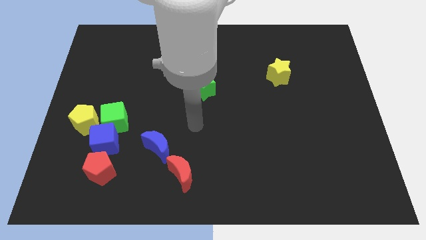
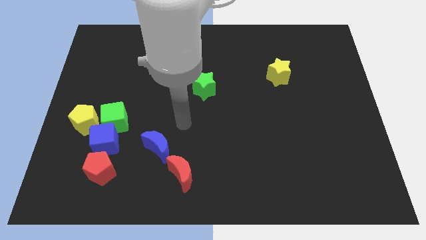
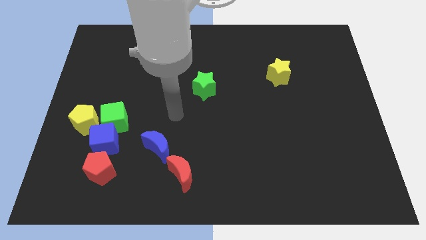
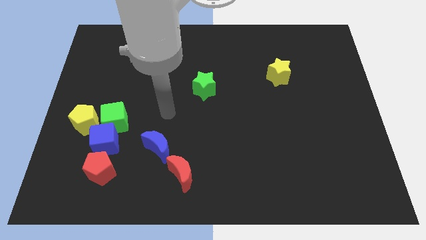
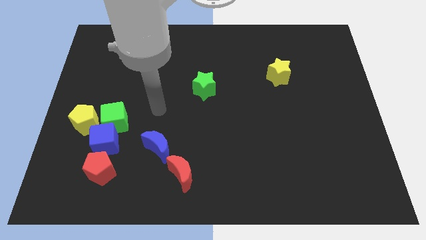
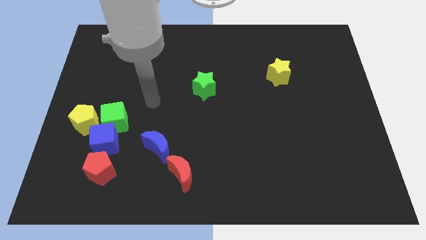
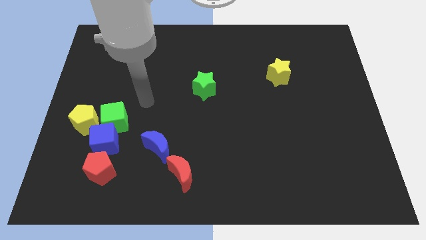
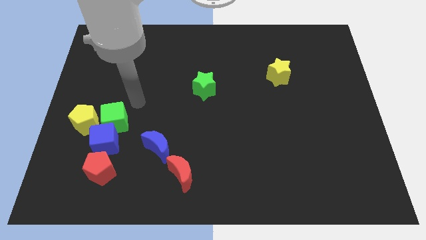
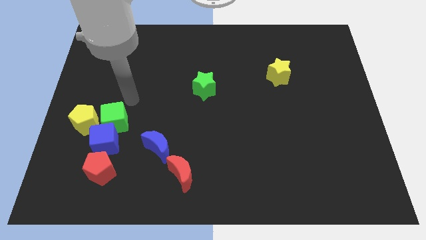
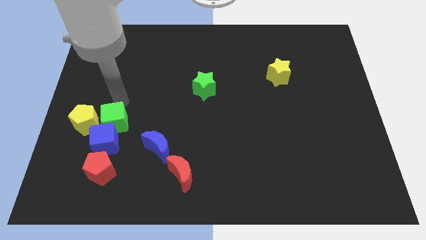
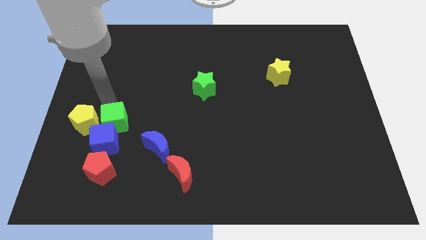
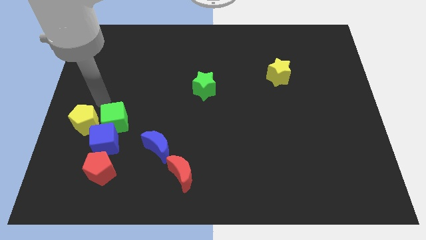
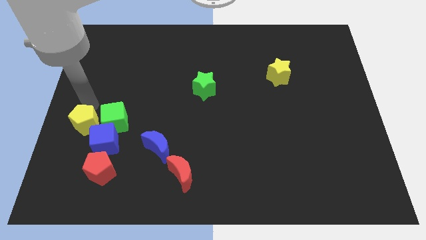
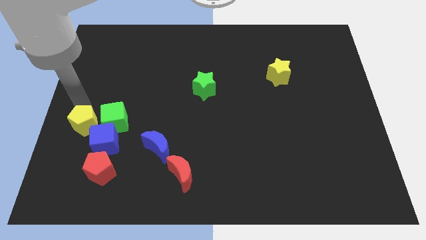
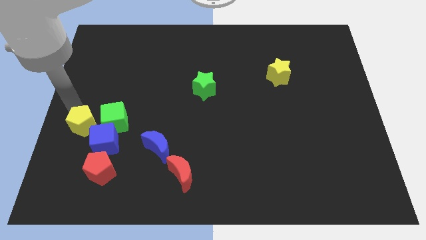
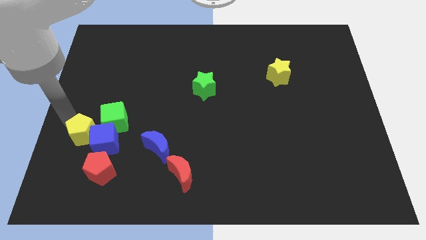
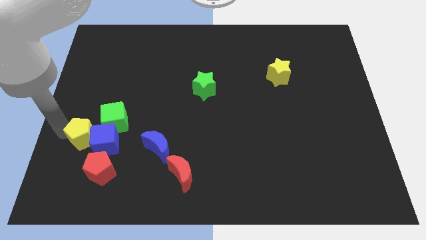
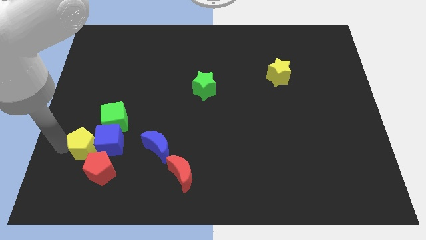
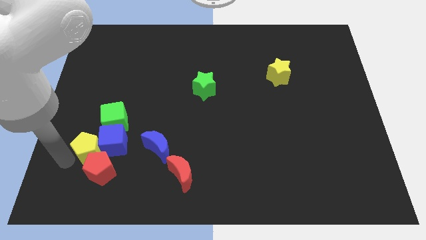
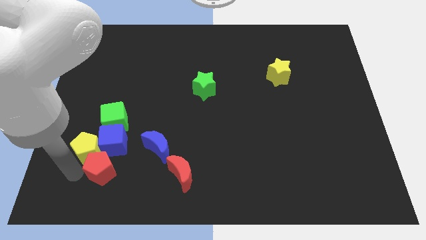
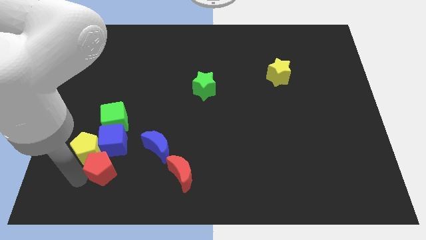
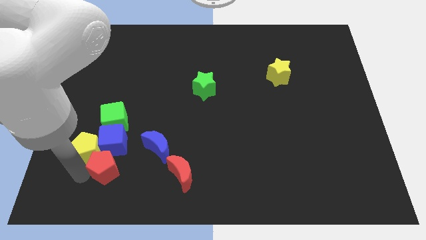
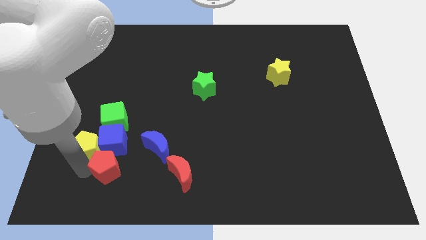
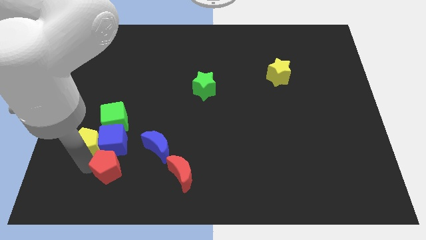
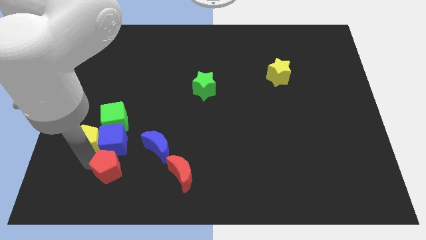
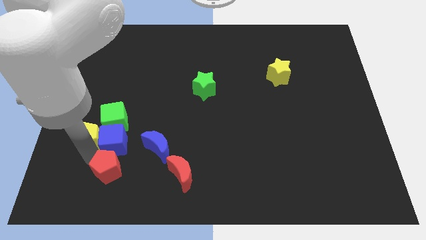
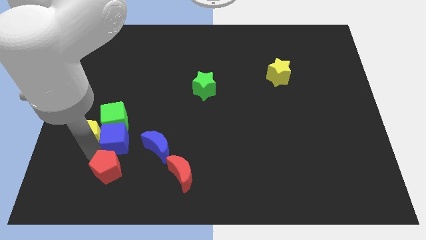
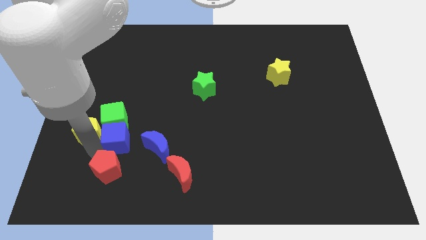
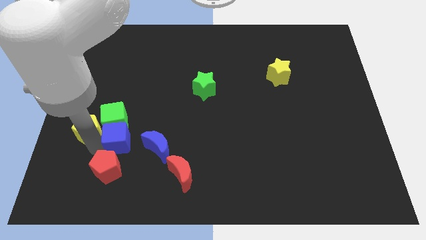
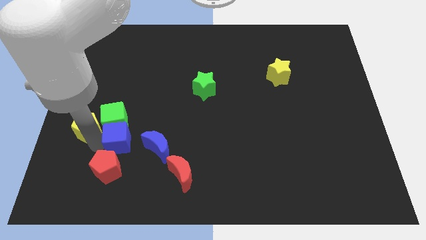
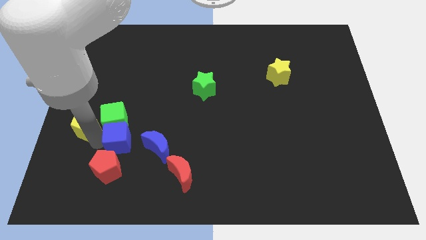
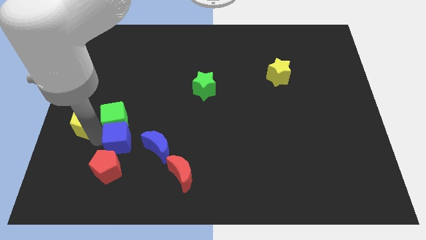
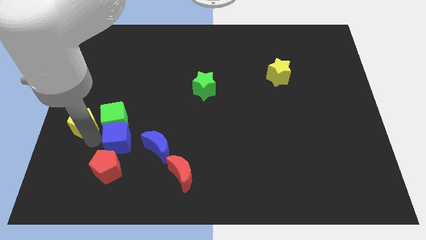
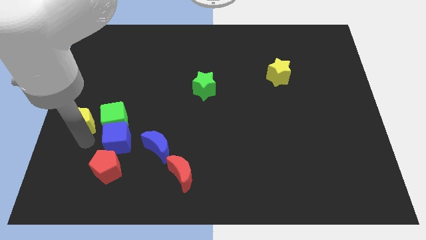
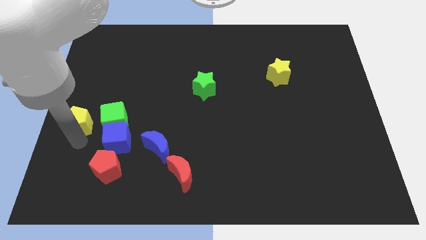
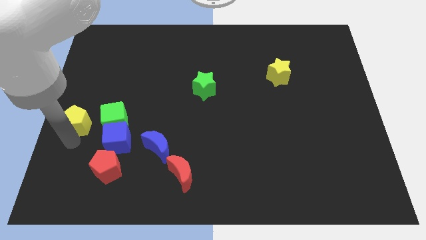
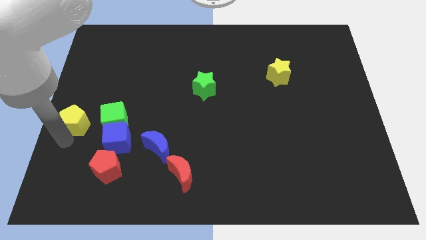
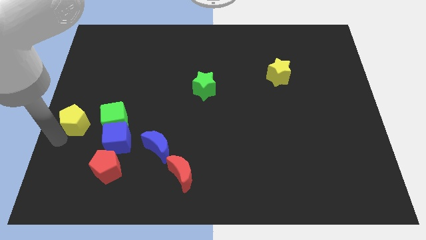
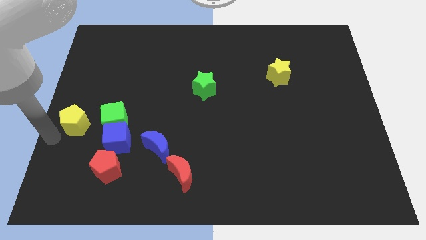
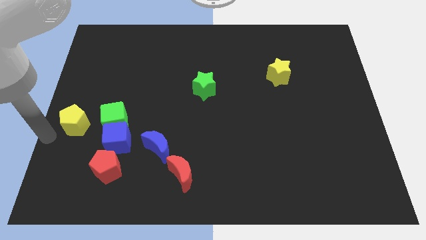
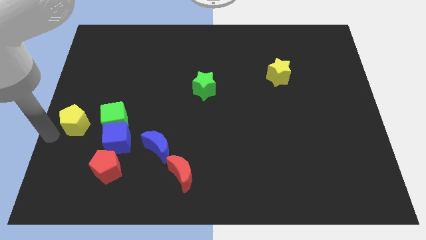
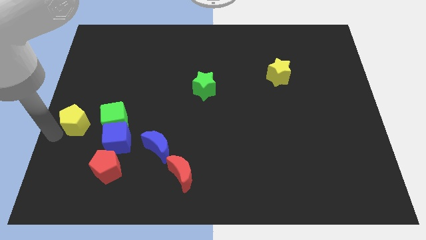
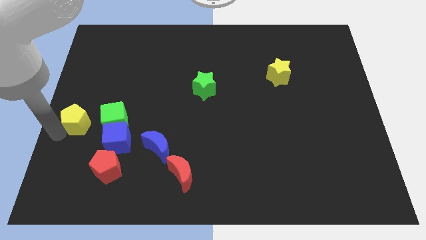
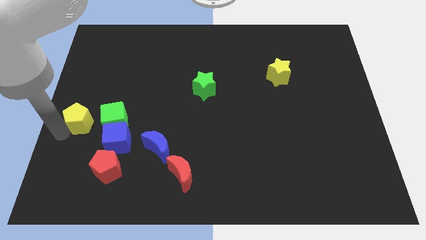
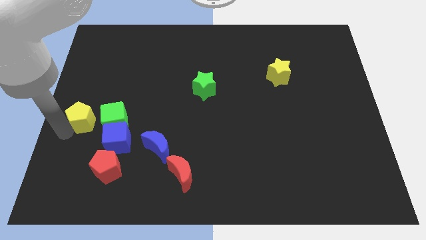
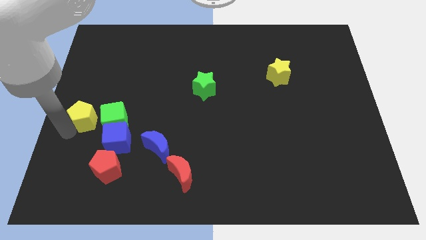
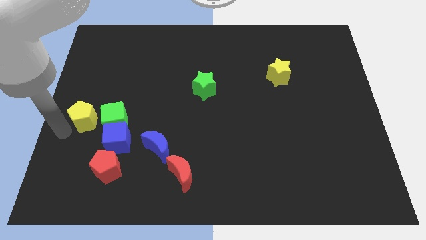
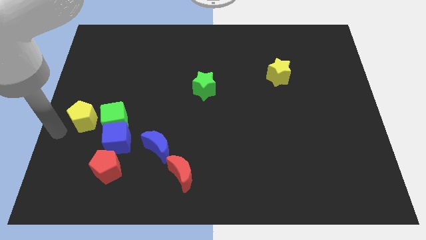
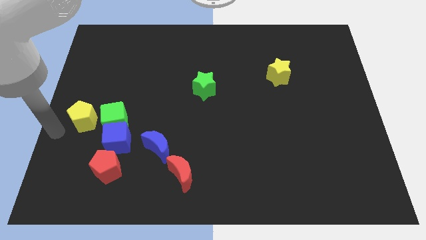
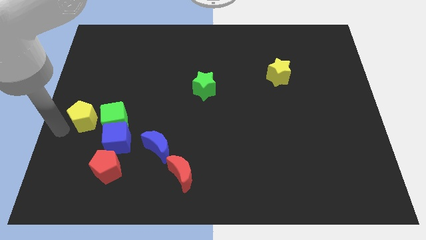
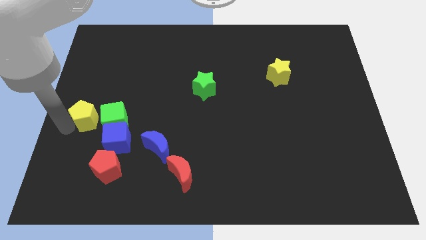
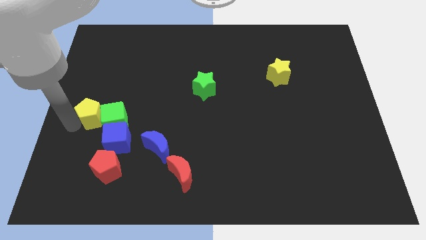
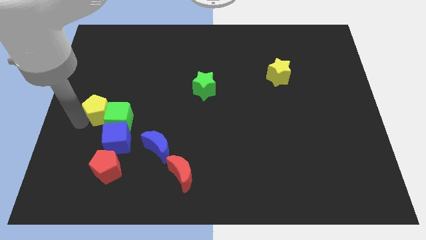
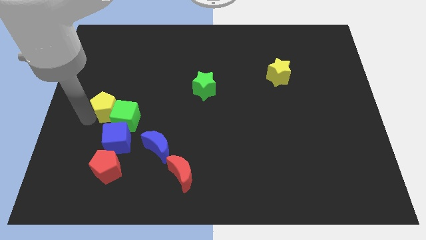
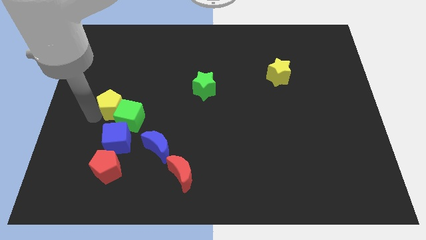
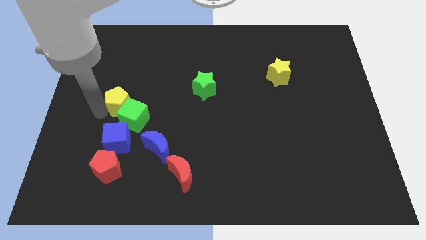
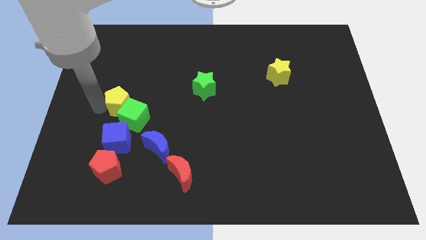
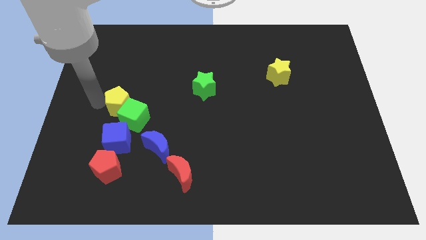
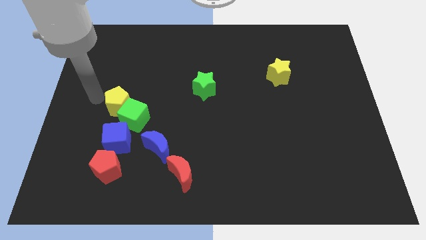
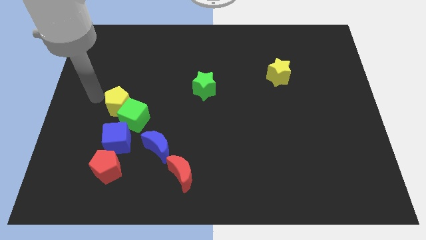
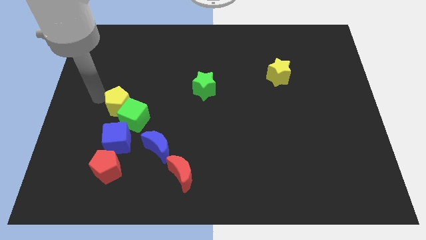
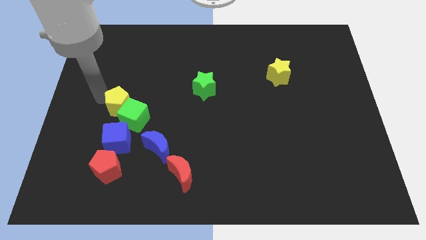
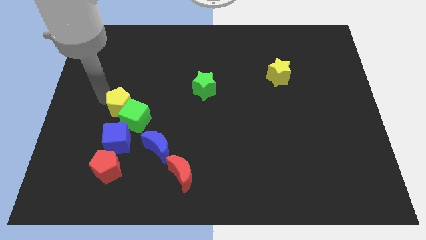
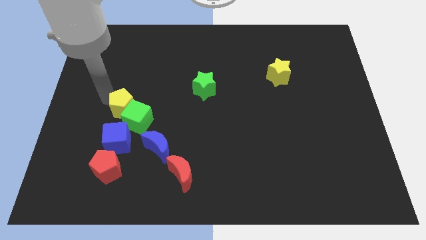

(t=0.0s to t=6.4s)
push the yellow pentagon a little right

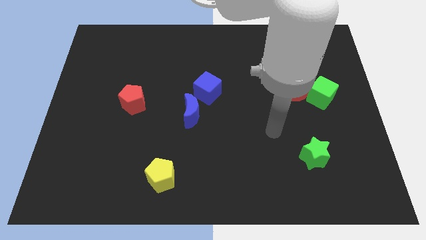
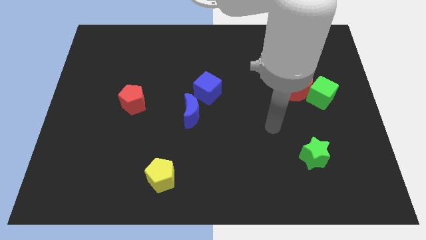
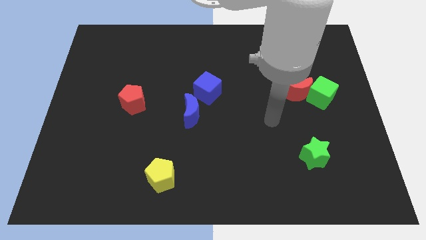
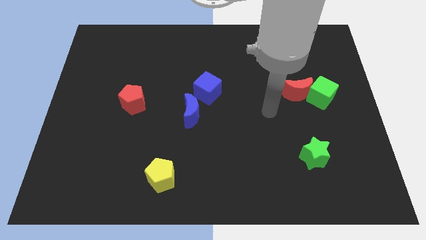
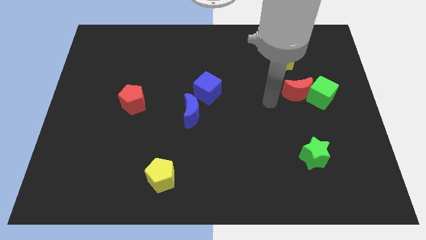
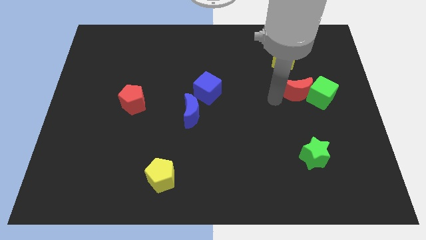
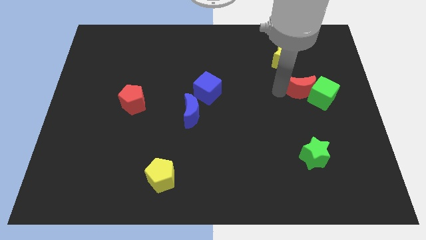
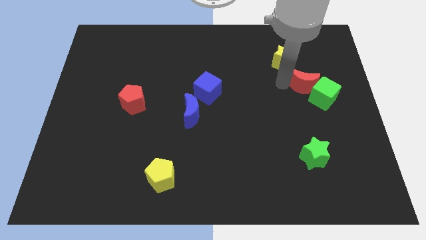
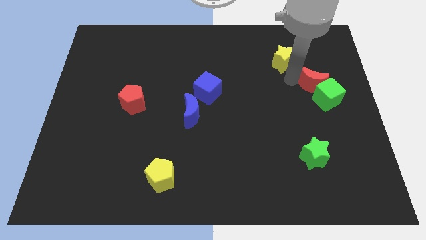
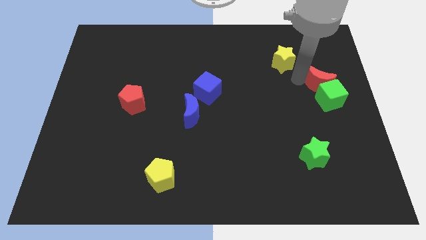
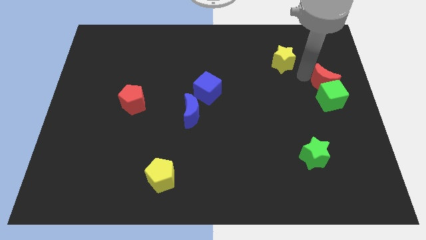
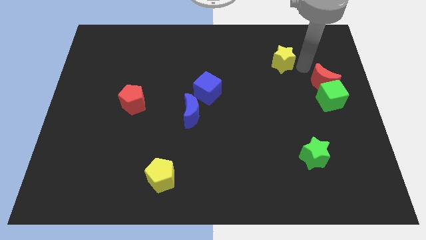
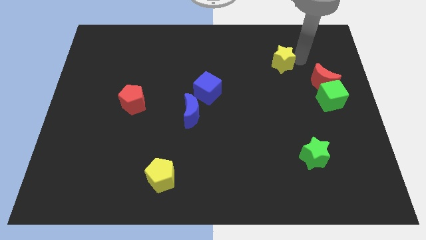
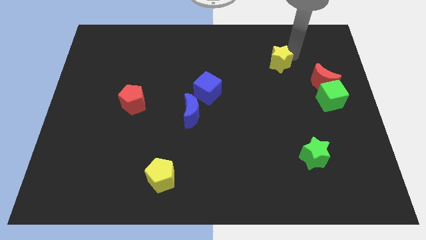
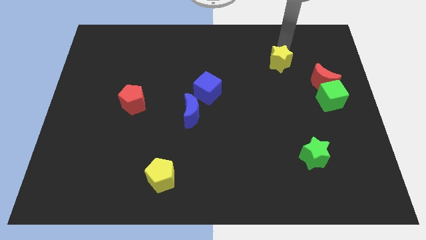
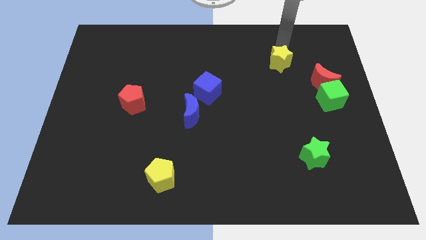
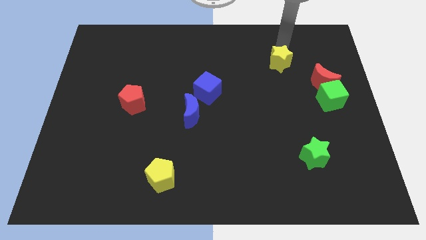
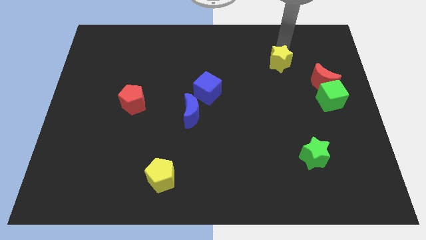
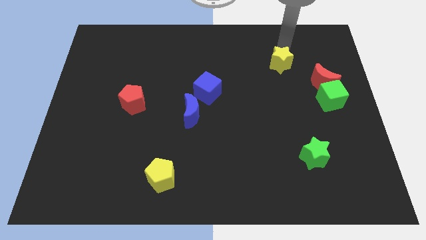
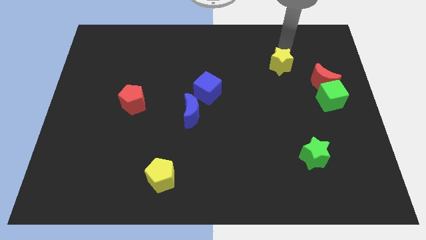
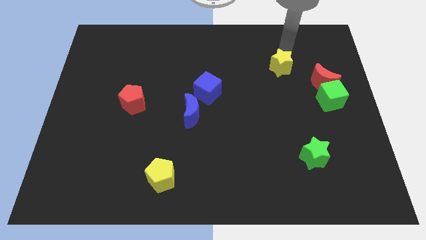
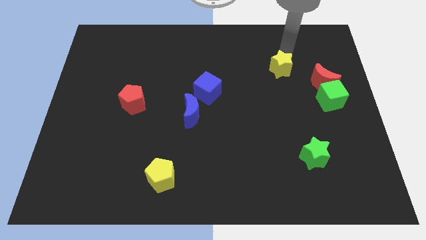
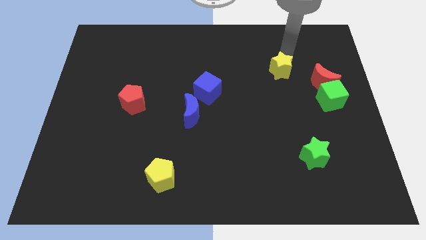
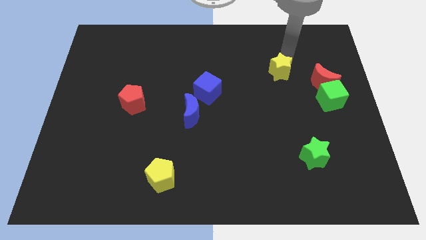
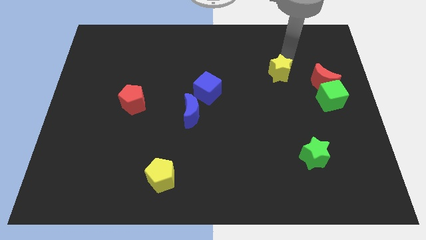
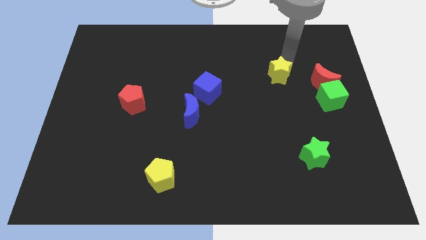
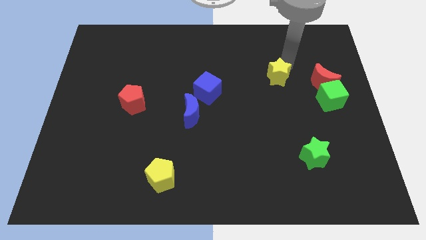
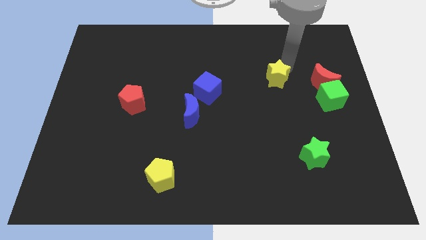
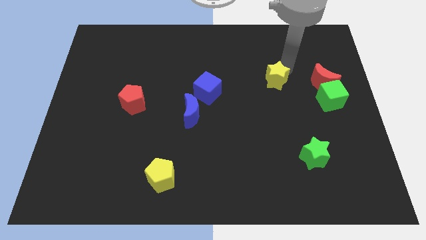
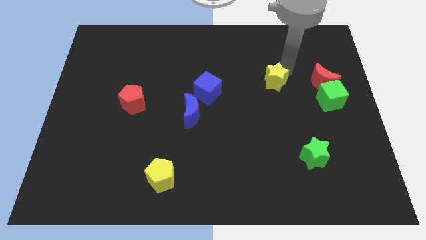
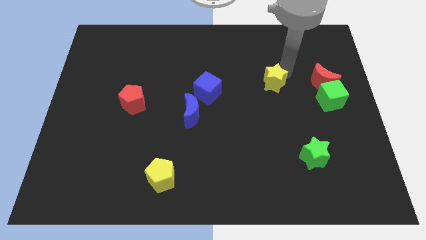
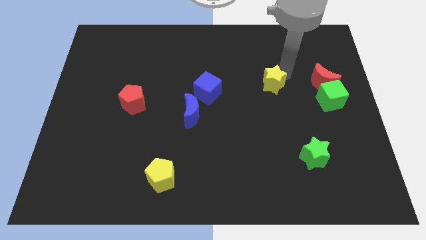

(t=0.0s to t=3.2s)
slightly move the yellow star diagonally down and left
